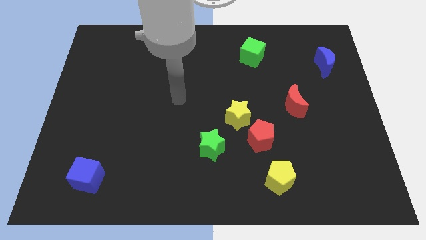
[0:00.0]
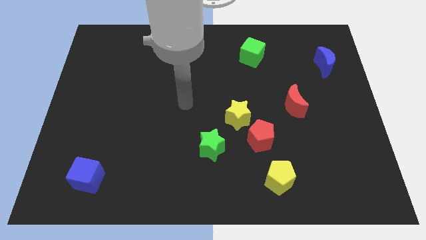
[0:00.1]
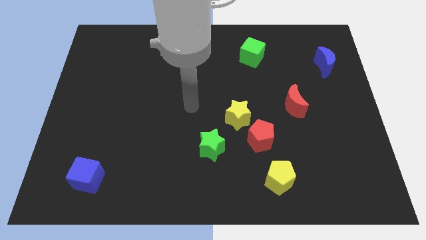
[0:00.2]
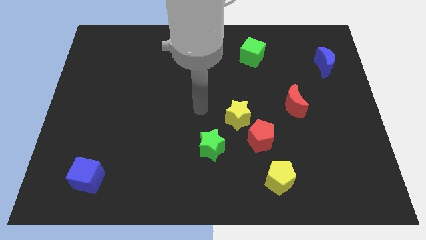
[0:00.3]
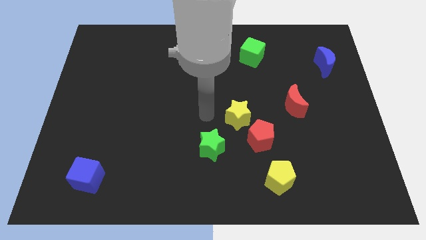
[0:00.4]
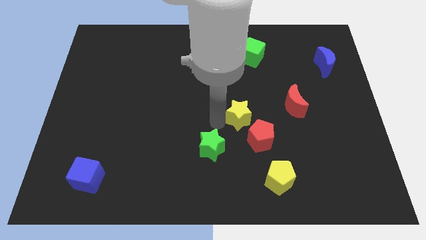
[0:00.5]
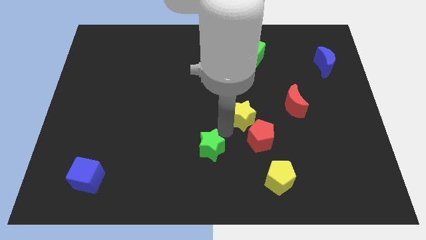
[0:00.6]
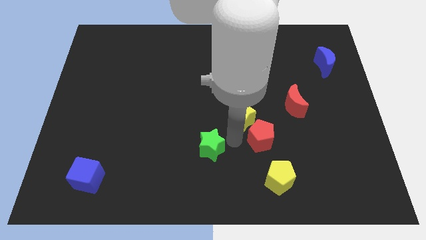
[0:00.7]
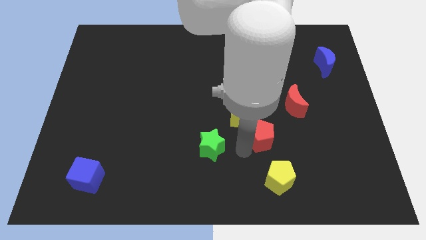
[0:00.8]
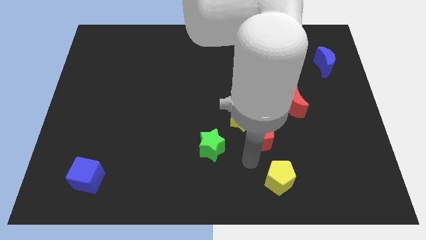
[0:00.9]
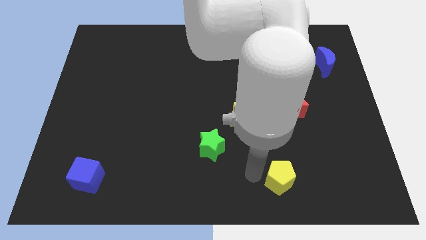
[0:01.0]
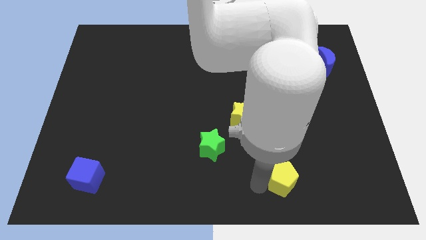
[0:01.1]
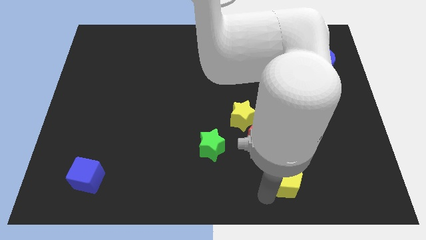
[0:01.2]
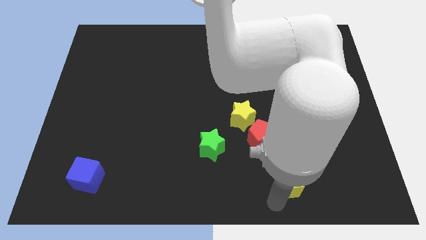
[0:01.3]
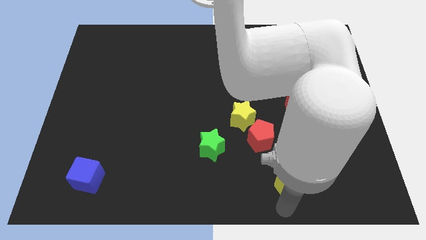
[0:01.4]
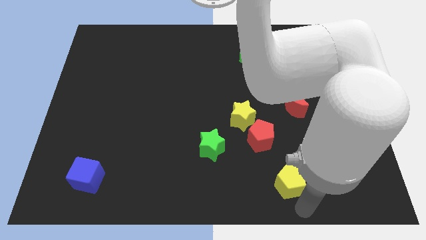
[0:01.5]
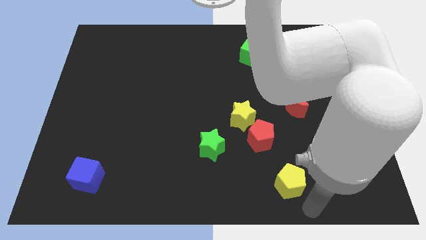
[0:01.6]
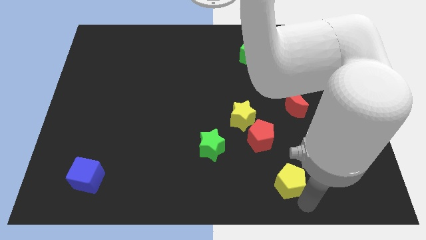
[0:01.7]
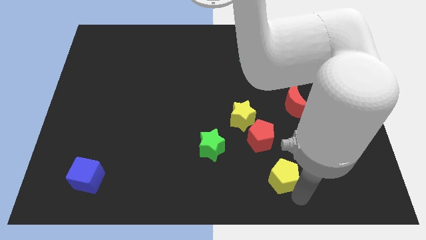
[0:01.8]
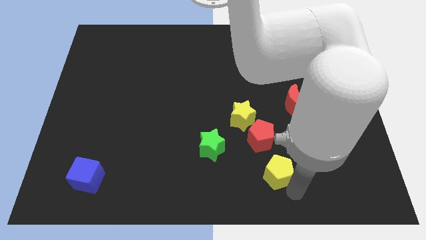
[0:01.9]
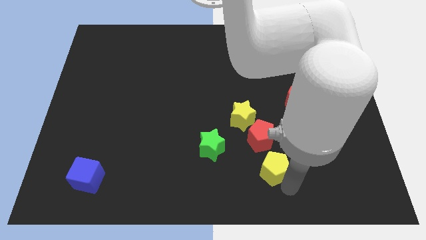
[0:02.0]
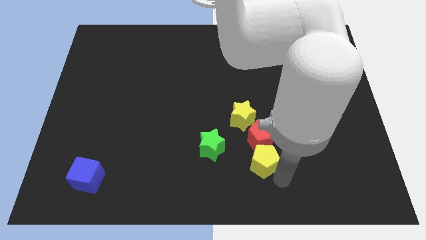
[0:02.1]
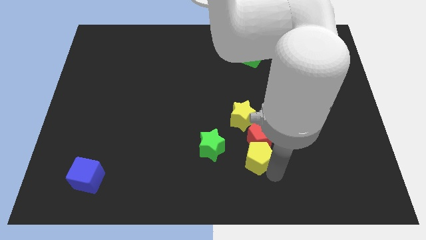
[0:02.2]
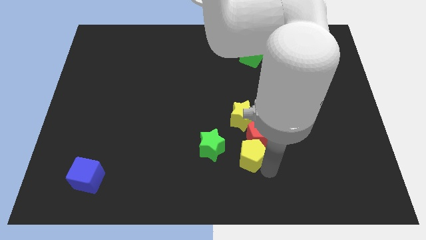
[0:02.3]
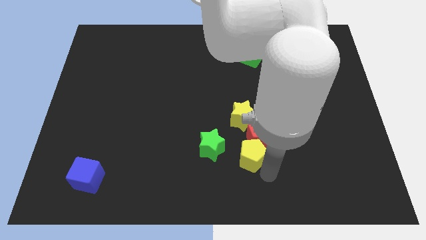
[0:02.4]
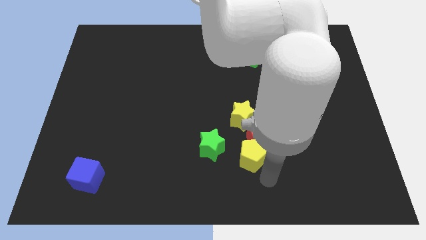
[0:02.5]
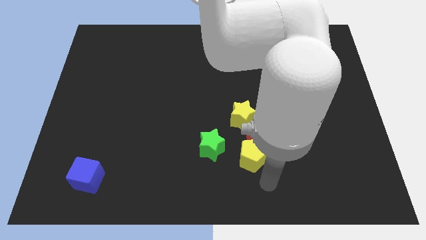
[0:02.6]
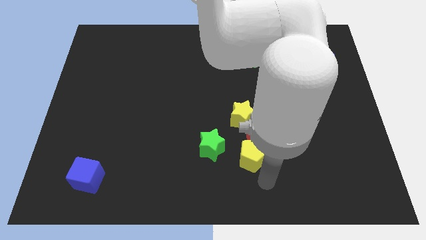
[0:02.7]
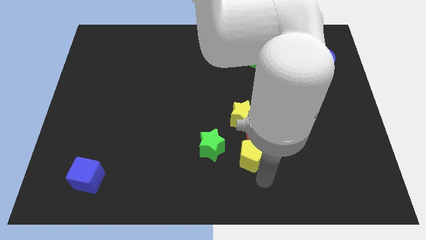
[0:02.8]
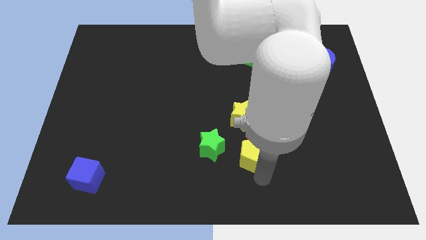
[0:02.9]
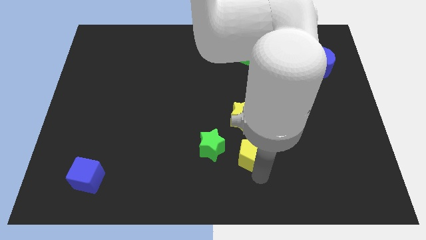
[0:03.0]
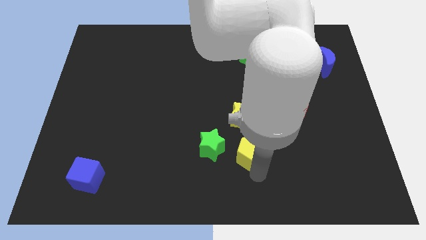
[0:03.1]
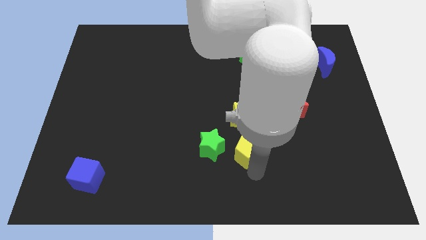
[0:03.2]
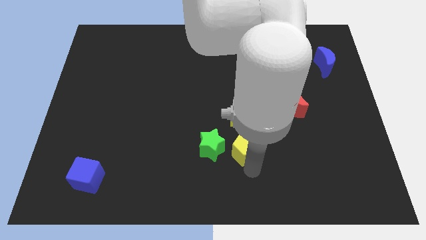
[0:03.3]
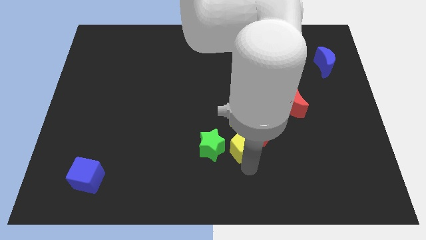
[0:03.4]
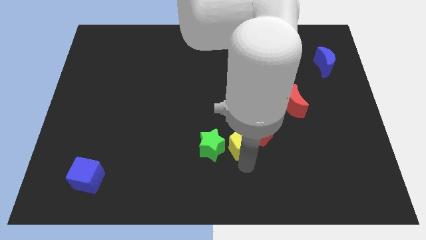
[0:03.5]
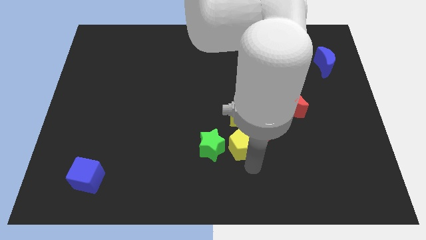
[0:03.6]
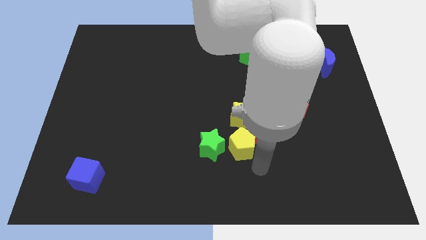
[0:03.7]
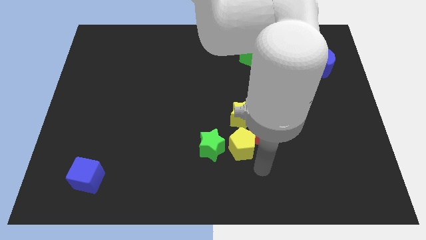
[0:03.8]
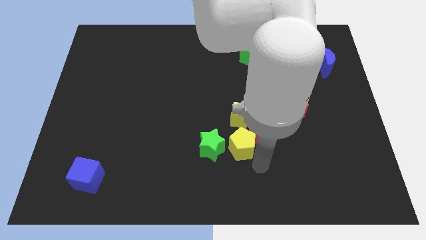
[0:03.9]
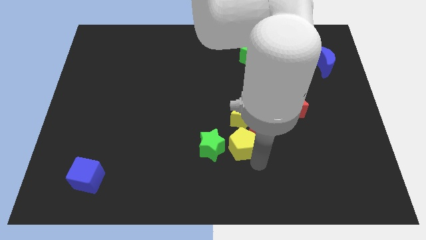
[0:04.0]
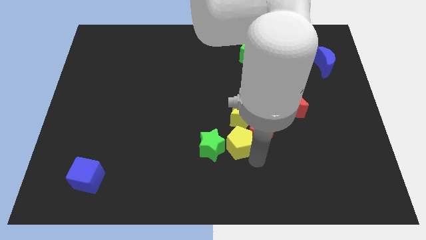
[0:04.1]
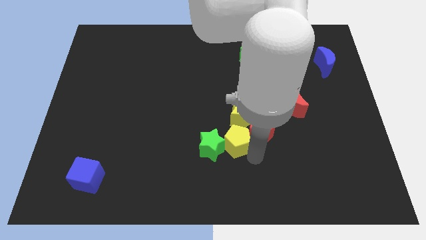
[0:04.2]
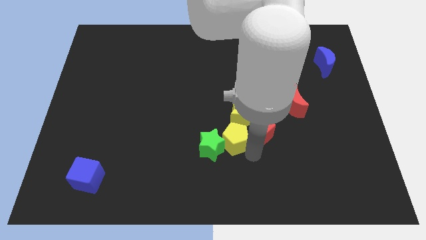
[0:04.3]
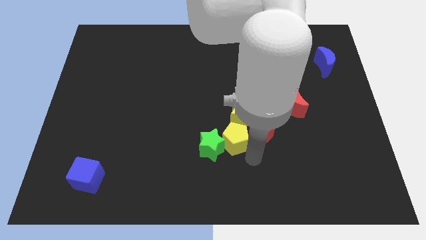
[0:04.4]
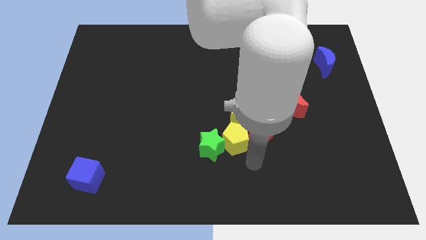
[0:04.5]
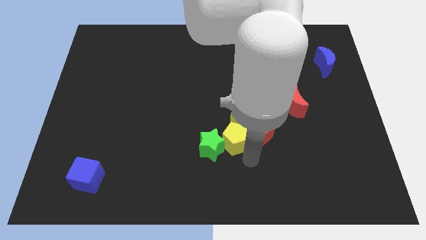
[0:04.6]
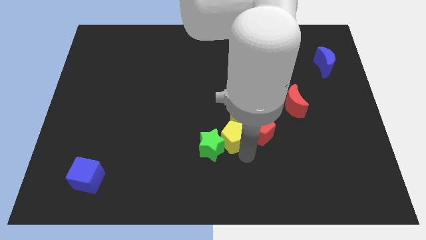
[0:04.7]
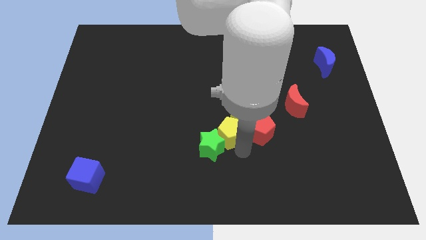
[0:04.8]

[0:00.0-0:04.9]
move the yellow pentagon above the green star

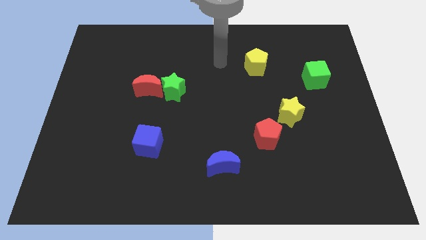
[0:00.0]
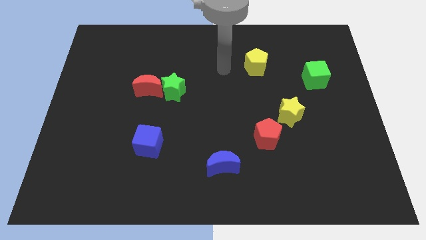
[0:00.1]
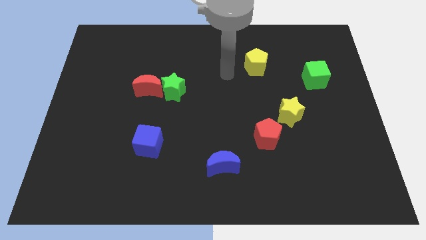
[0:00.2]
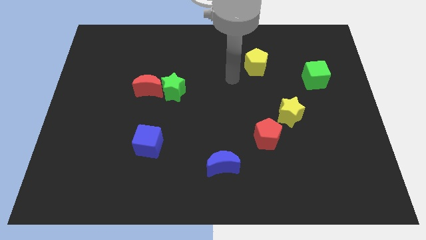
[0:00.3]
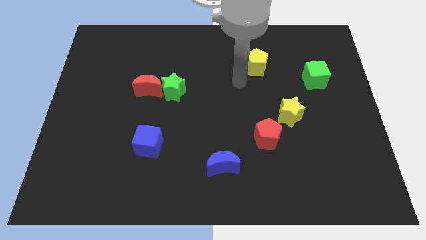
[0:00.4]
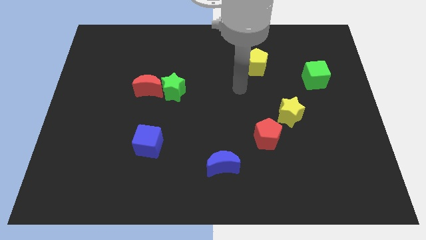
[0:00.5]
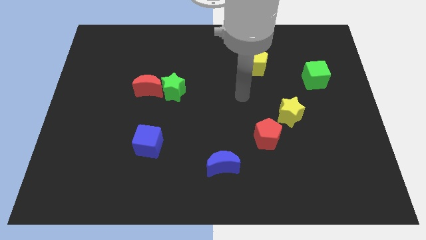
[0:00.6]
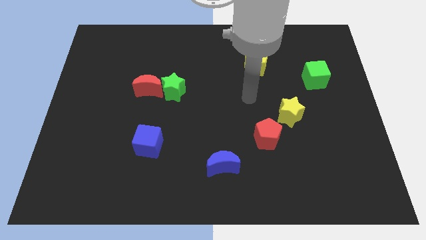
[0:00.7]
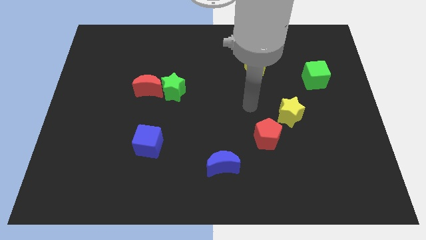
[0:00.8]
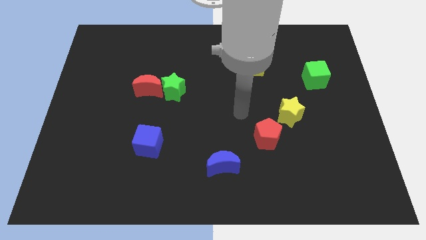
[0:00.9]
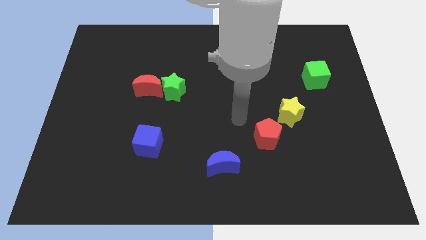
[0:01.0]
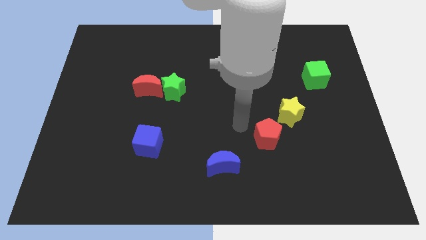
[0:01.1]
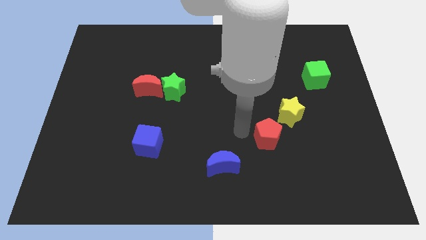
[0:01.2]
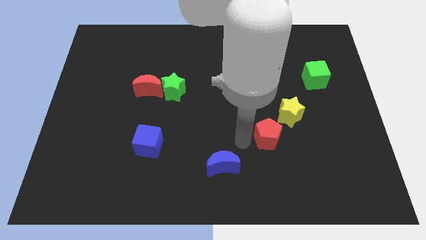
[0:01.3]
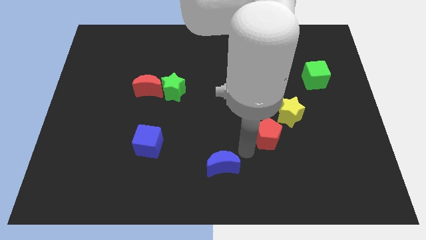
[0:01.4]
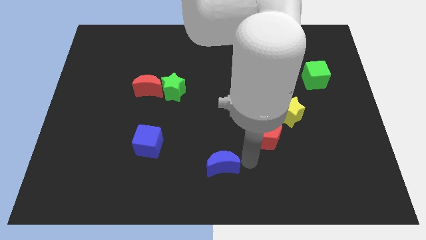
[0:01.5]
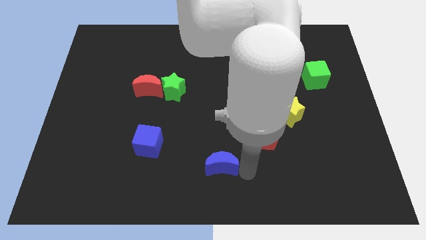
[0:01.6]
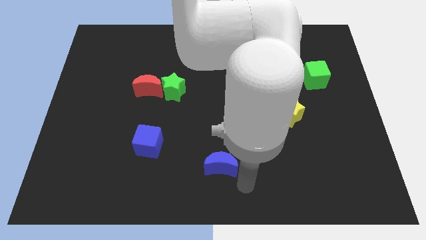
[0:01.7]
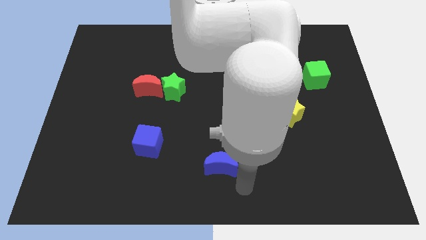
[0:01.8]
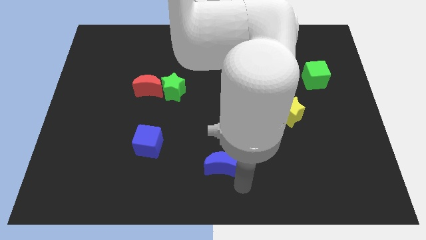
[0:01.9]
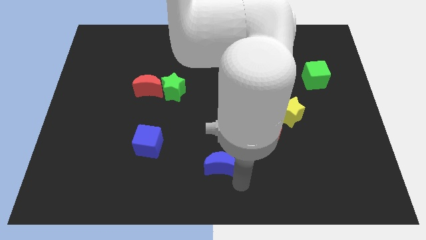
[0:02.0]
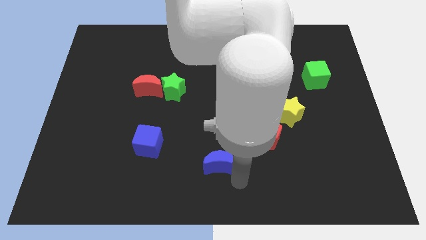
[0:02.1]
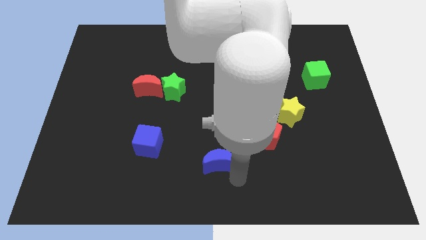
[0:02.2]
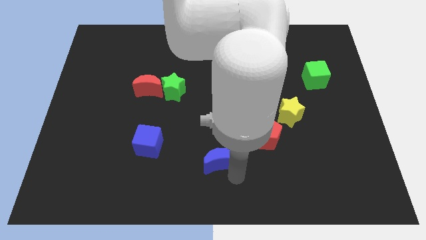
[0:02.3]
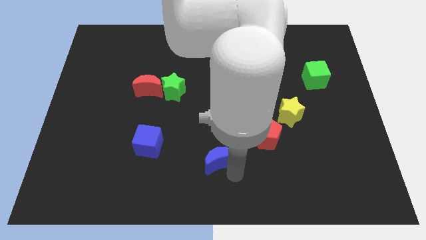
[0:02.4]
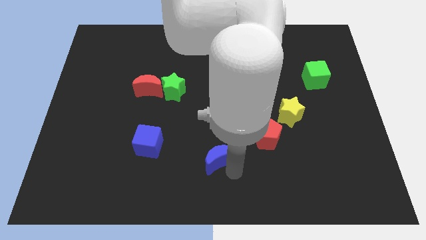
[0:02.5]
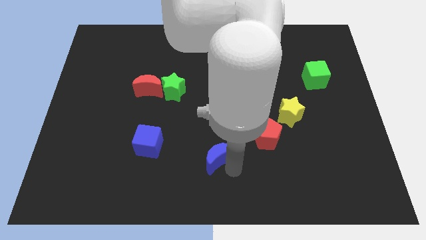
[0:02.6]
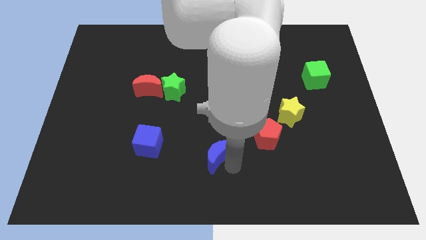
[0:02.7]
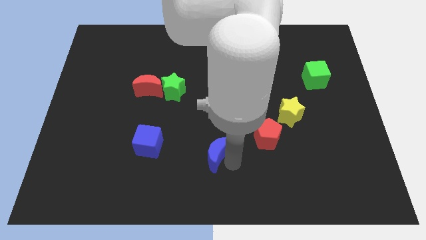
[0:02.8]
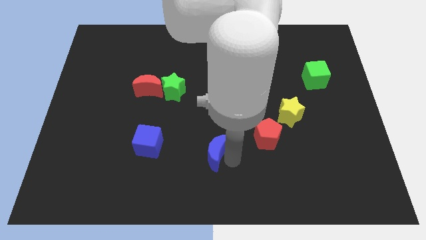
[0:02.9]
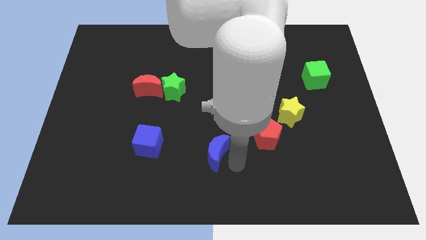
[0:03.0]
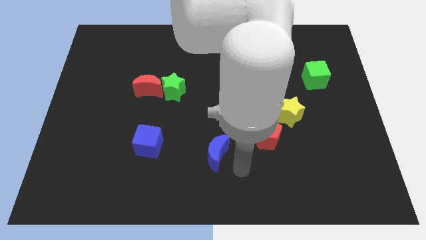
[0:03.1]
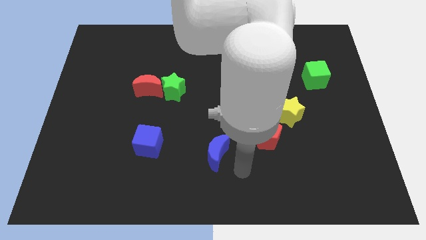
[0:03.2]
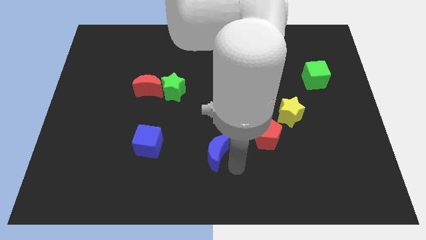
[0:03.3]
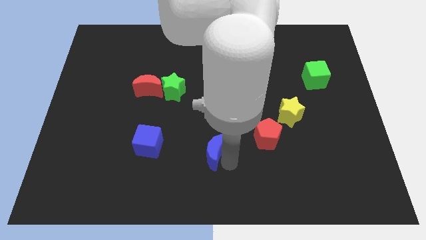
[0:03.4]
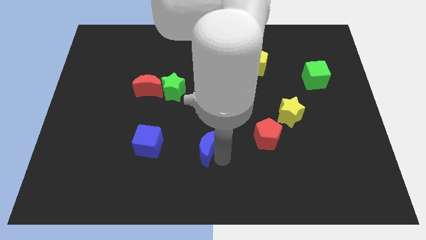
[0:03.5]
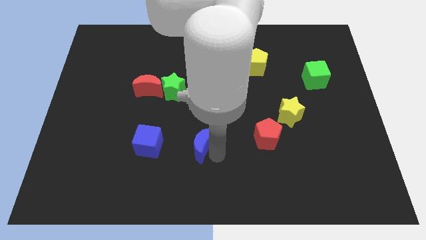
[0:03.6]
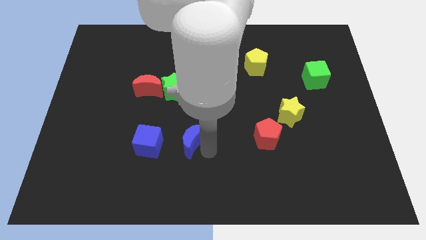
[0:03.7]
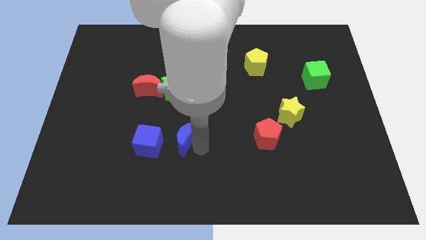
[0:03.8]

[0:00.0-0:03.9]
push the blue moon diagonally up and to the right of the blue cube
